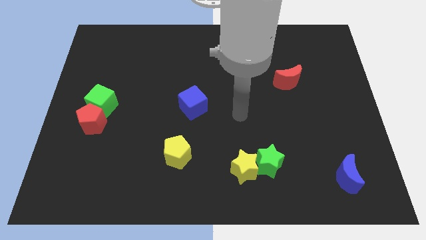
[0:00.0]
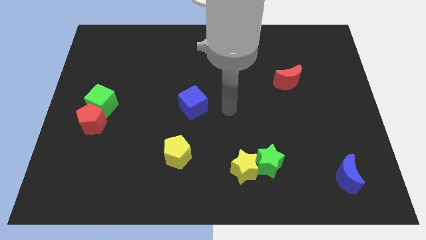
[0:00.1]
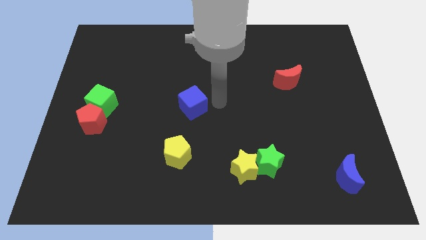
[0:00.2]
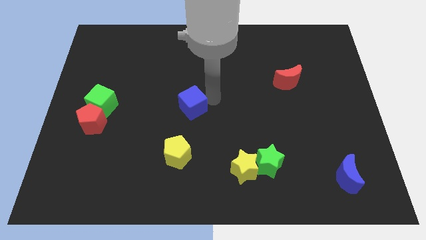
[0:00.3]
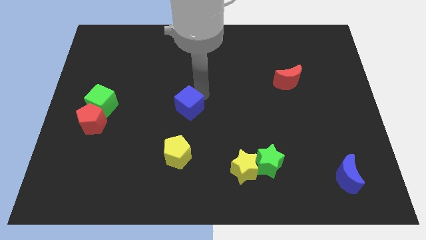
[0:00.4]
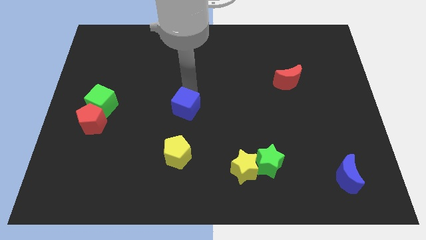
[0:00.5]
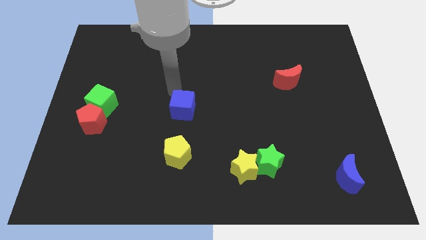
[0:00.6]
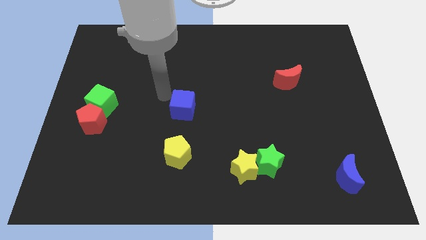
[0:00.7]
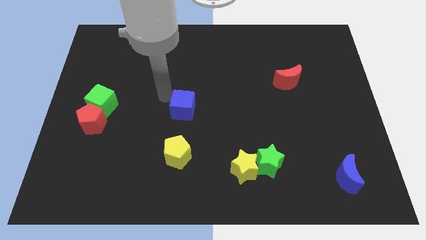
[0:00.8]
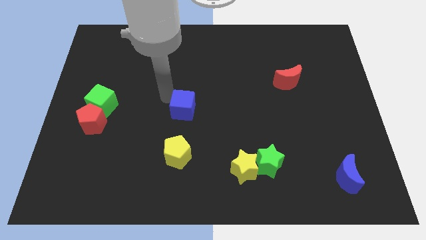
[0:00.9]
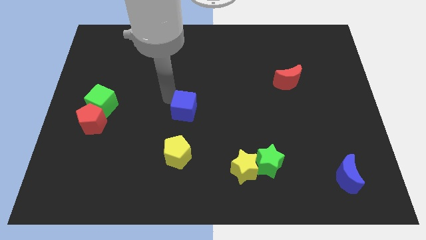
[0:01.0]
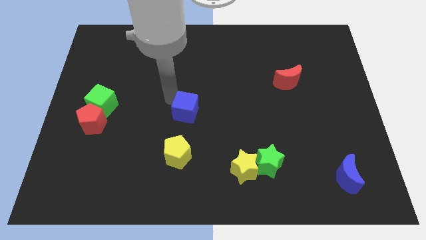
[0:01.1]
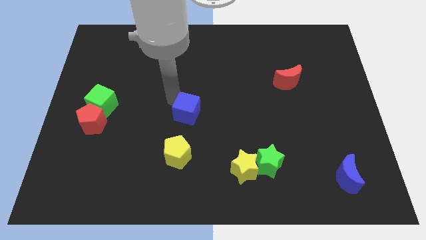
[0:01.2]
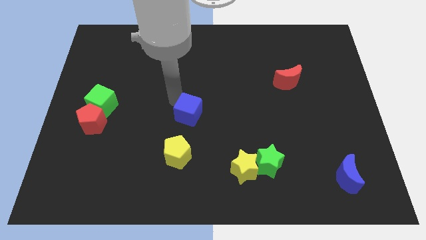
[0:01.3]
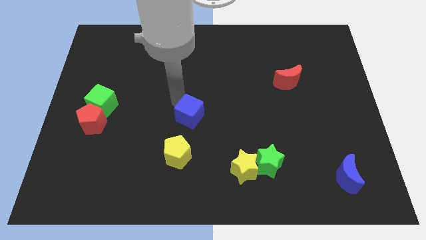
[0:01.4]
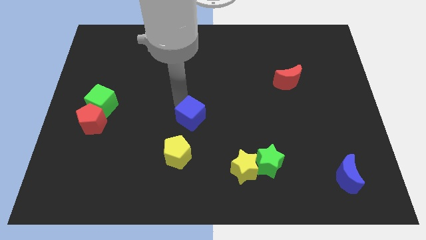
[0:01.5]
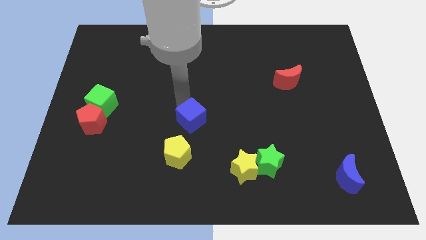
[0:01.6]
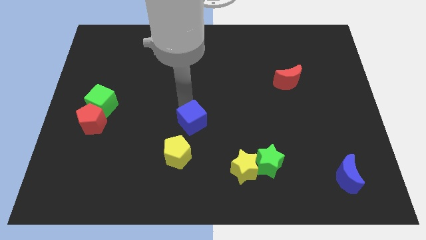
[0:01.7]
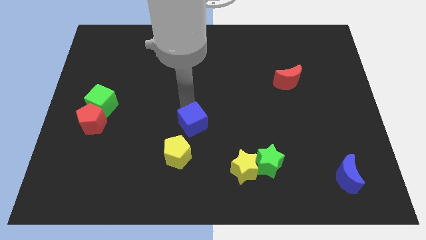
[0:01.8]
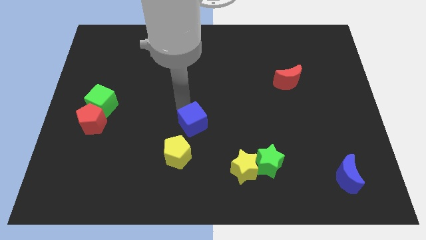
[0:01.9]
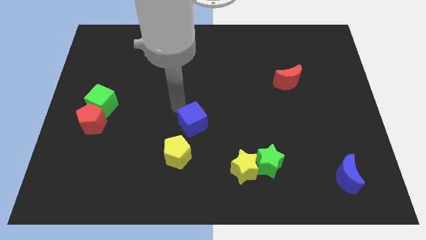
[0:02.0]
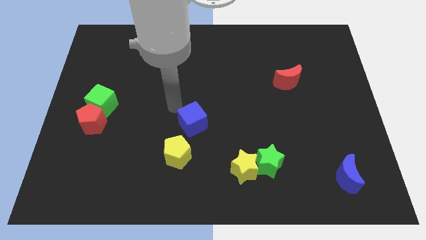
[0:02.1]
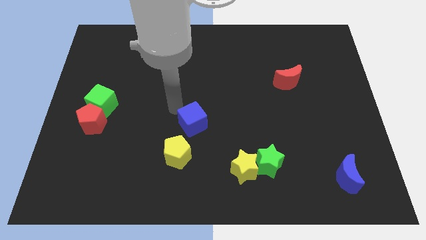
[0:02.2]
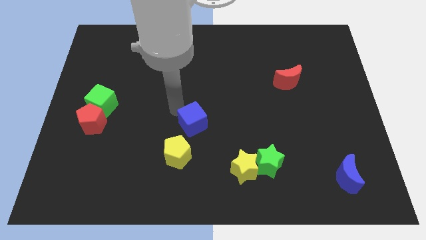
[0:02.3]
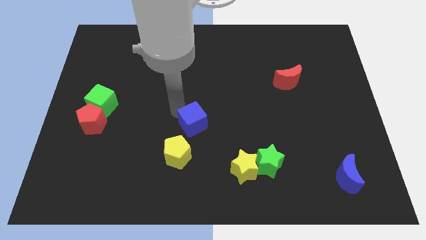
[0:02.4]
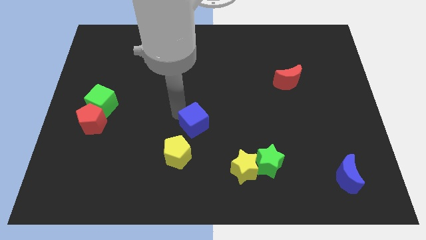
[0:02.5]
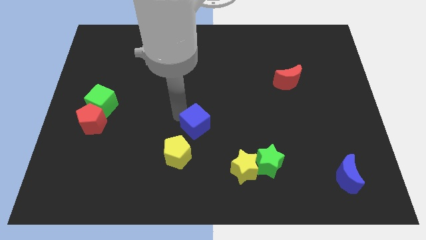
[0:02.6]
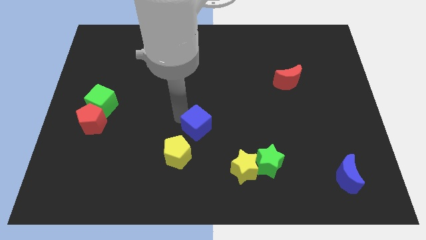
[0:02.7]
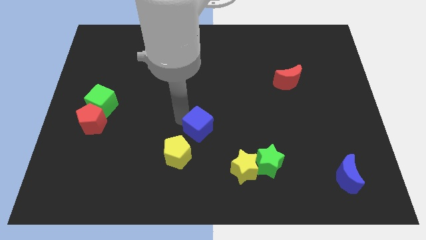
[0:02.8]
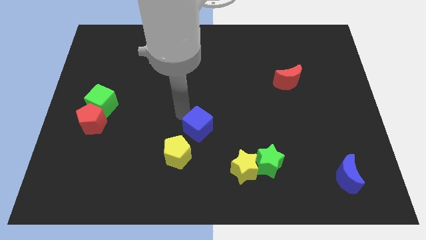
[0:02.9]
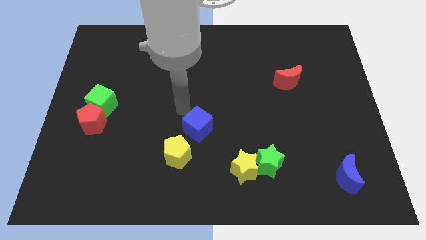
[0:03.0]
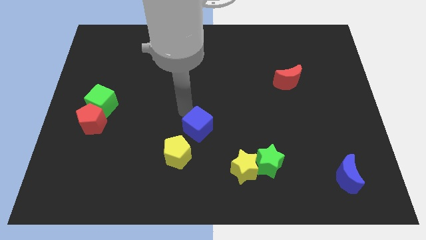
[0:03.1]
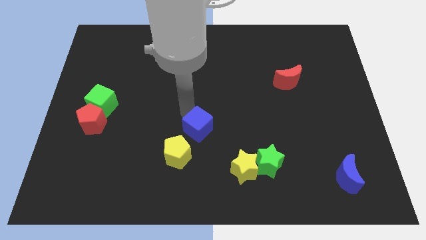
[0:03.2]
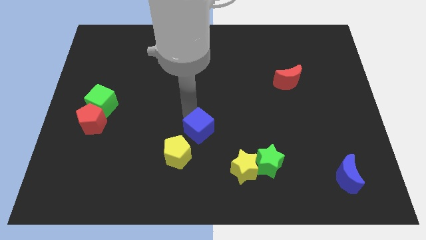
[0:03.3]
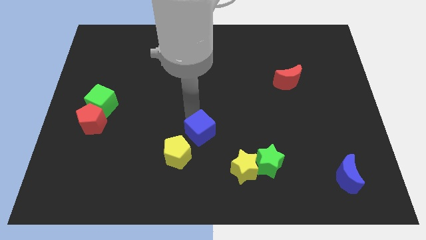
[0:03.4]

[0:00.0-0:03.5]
push the blue cube down a little

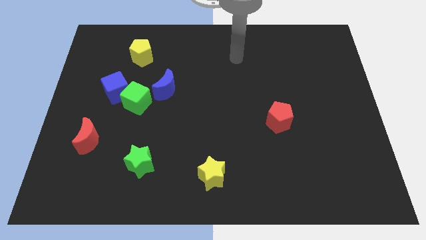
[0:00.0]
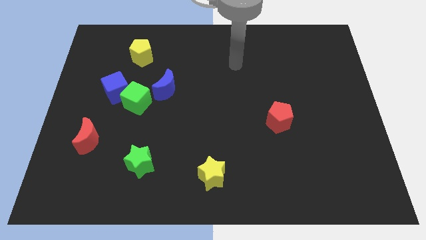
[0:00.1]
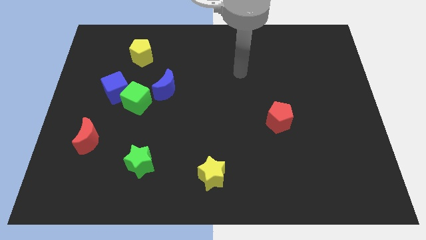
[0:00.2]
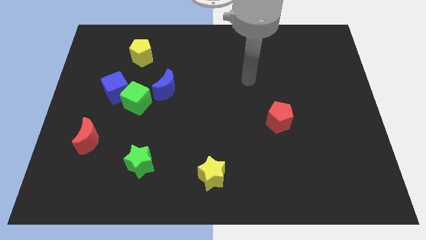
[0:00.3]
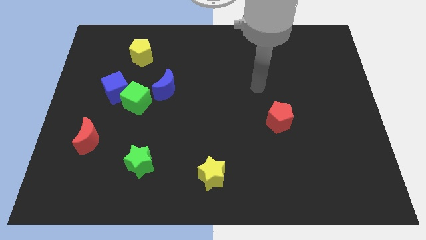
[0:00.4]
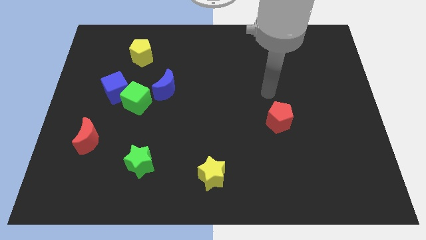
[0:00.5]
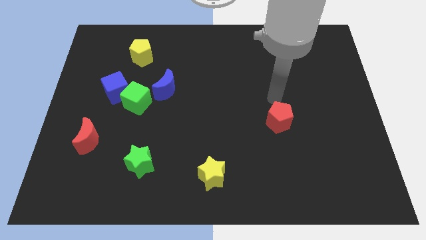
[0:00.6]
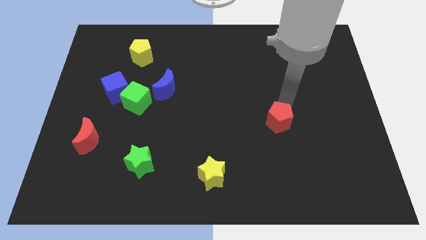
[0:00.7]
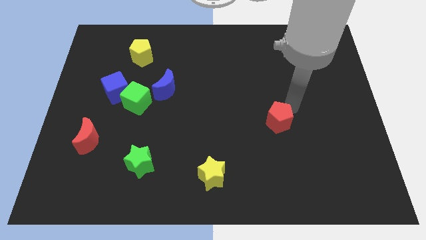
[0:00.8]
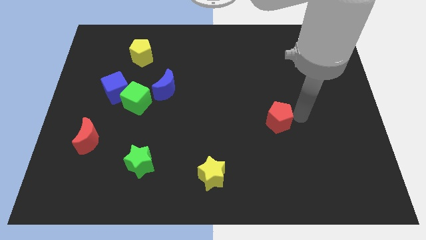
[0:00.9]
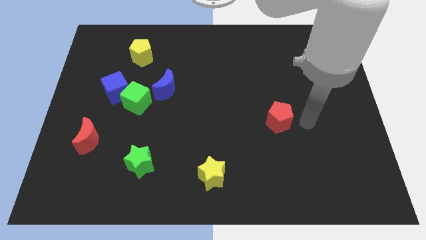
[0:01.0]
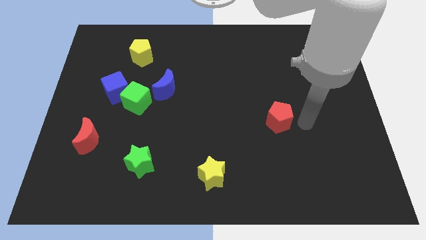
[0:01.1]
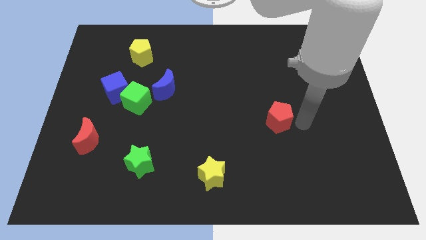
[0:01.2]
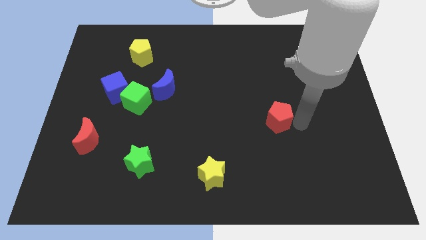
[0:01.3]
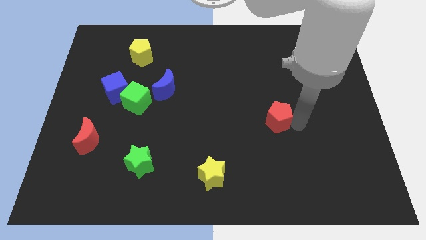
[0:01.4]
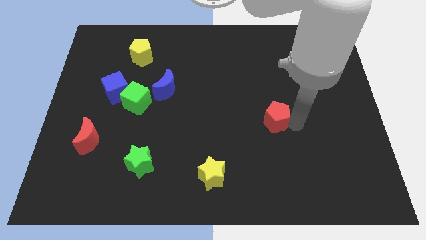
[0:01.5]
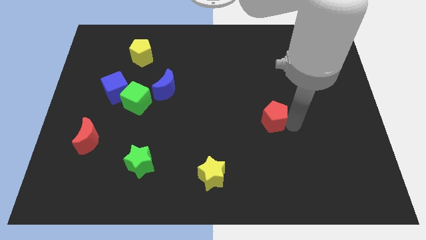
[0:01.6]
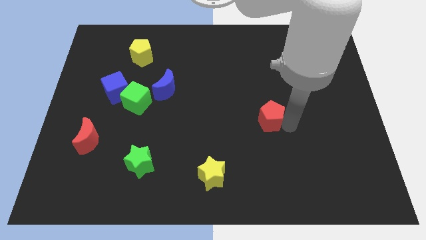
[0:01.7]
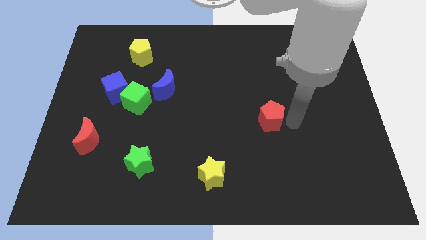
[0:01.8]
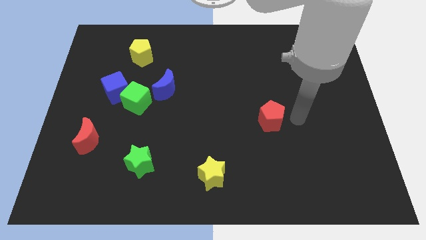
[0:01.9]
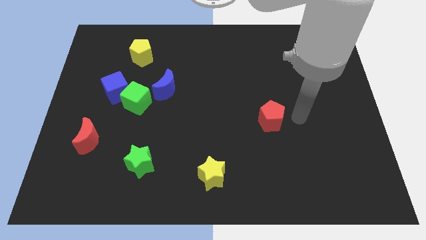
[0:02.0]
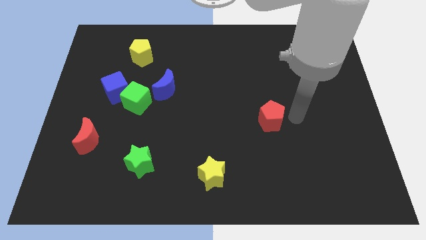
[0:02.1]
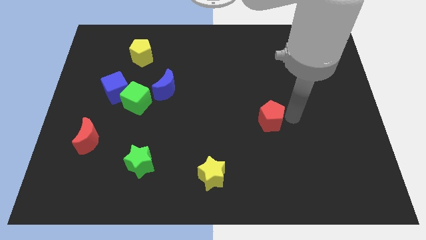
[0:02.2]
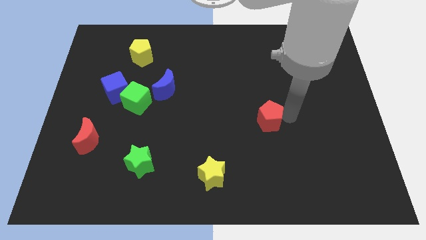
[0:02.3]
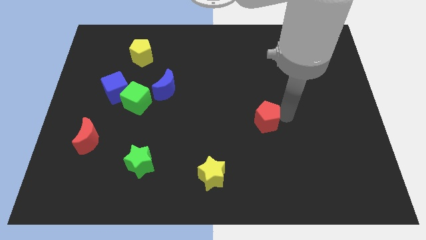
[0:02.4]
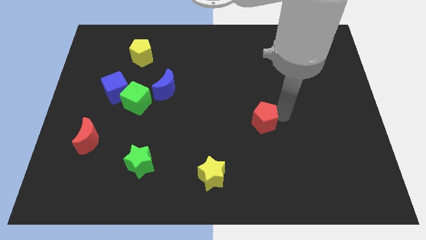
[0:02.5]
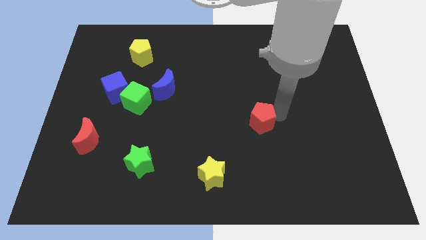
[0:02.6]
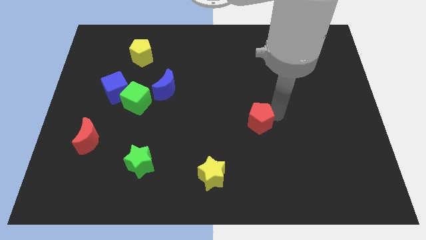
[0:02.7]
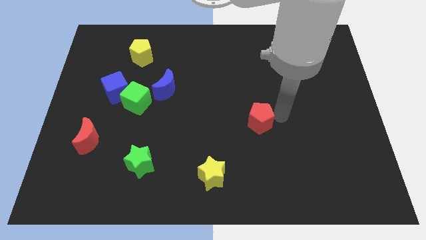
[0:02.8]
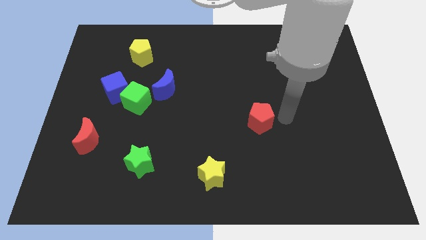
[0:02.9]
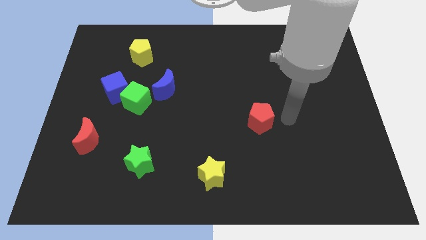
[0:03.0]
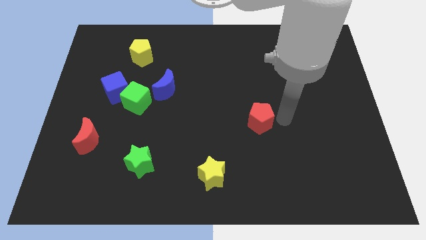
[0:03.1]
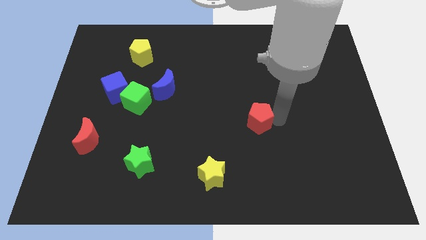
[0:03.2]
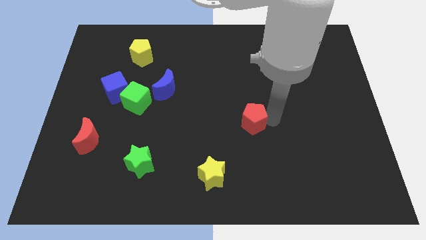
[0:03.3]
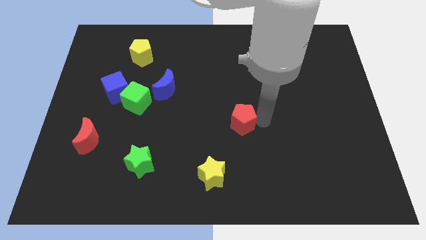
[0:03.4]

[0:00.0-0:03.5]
slide the red pentagon to the left a little

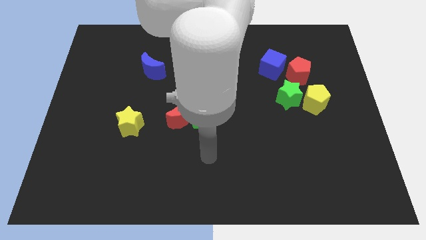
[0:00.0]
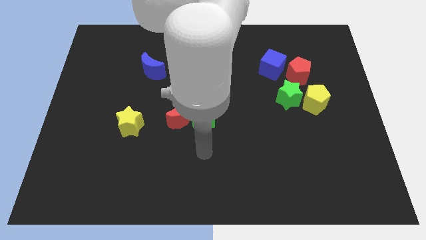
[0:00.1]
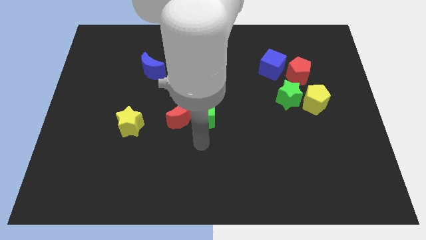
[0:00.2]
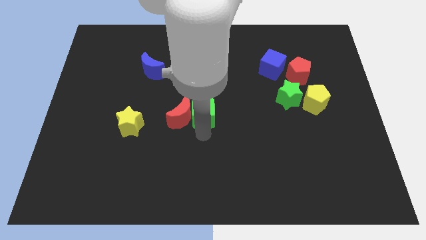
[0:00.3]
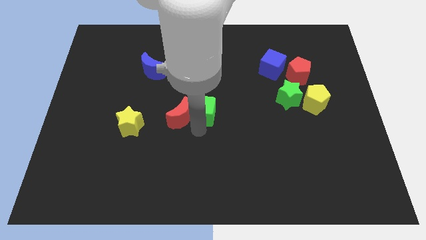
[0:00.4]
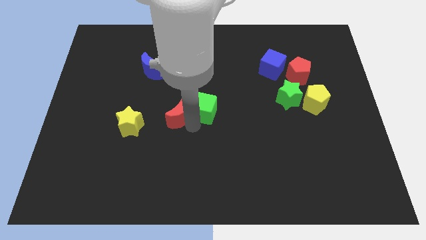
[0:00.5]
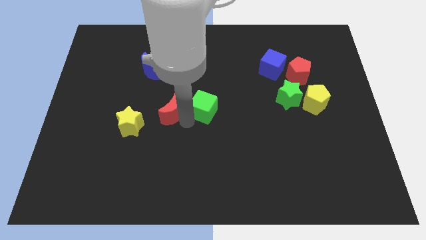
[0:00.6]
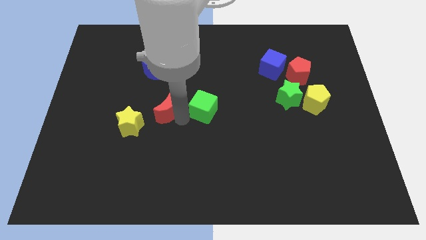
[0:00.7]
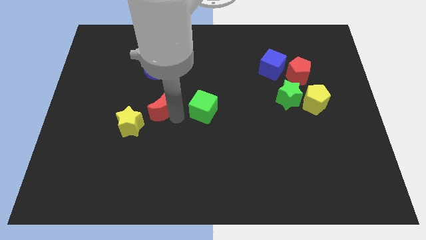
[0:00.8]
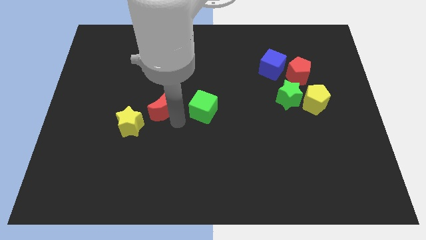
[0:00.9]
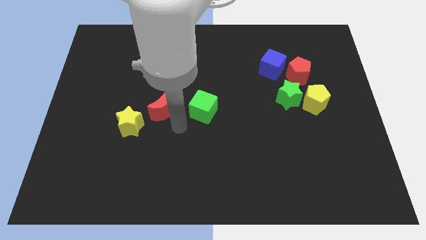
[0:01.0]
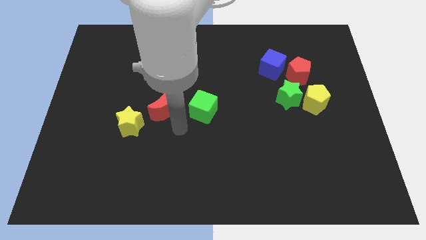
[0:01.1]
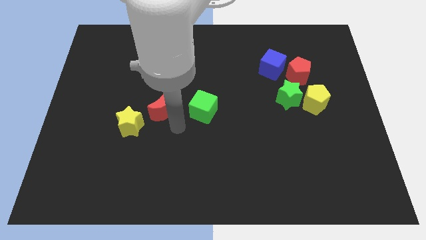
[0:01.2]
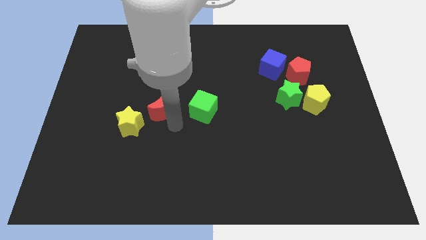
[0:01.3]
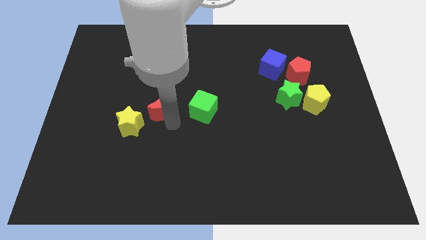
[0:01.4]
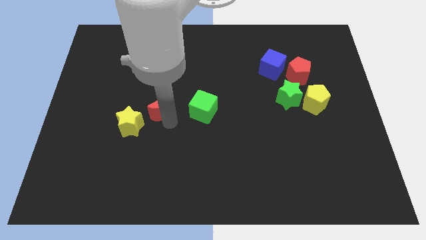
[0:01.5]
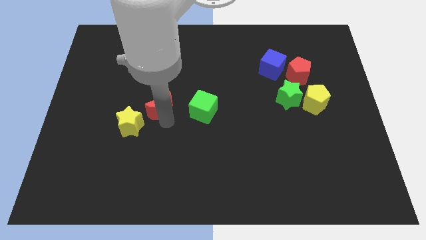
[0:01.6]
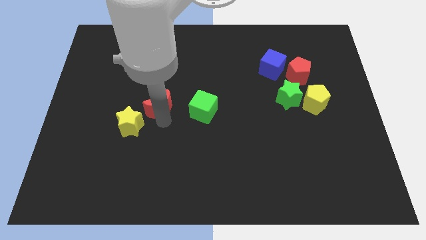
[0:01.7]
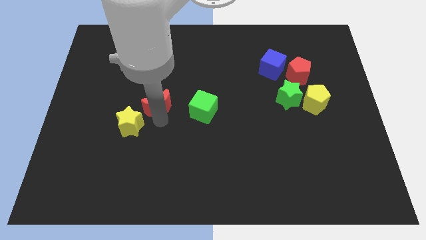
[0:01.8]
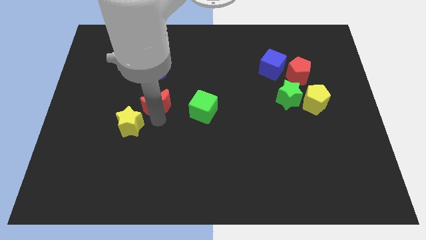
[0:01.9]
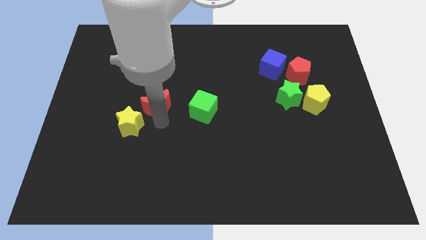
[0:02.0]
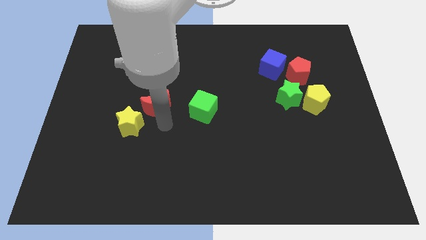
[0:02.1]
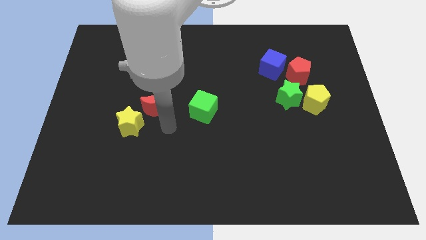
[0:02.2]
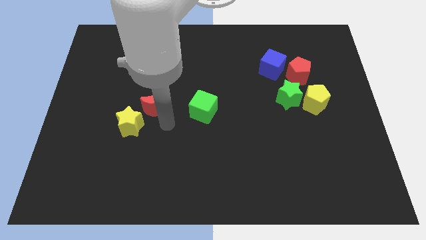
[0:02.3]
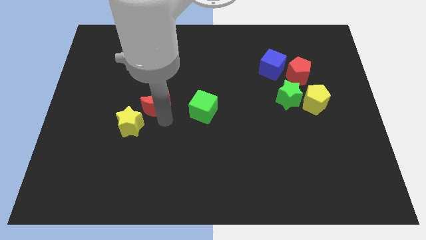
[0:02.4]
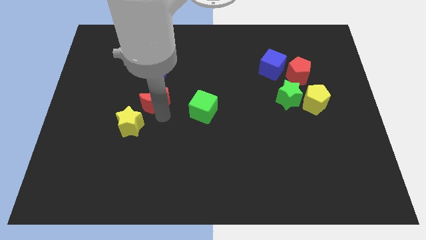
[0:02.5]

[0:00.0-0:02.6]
slide the red moon up and then left a bit
